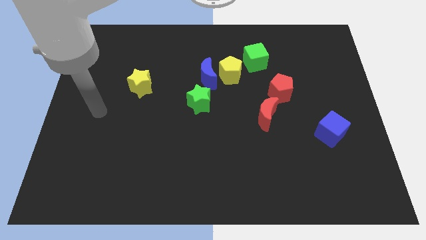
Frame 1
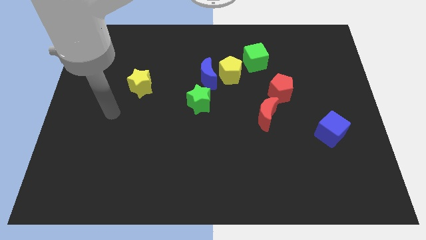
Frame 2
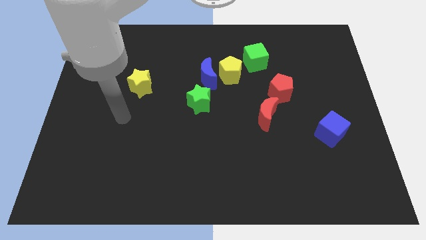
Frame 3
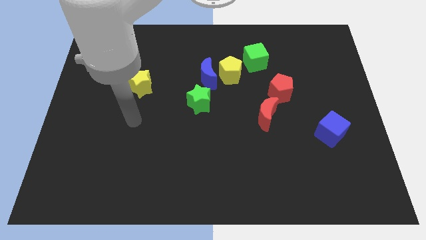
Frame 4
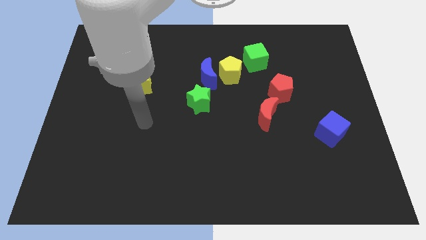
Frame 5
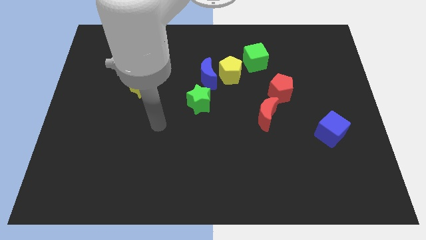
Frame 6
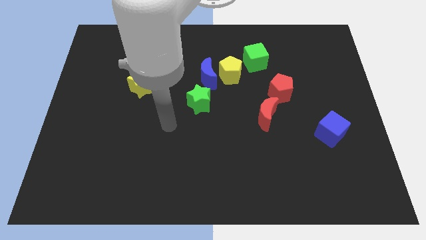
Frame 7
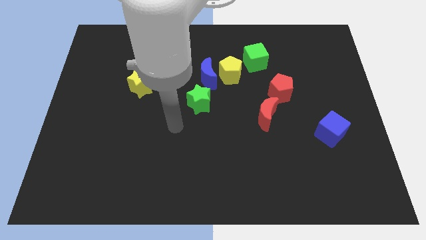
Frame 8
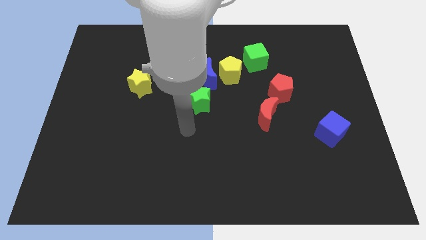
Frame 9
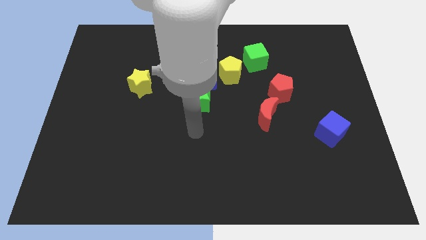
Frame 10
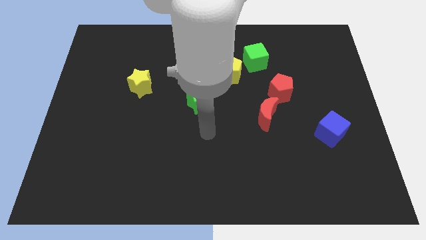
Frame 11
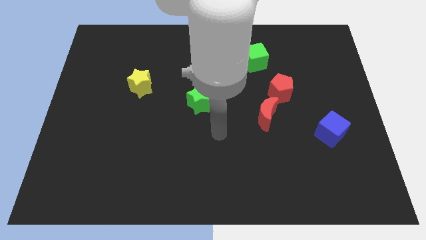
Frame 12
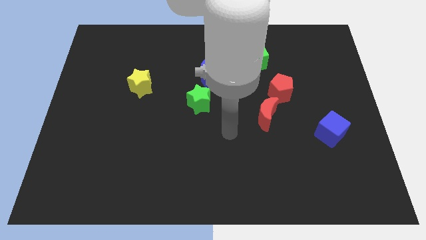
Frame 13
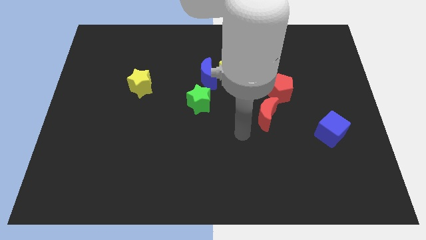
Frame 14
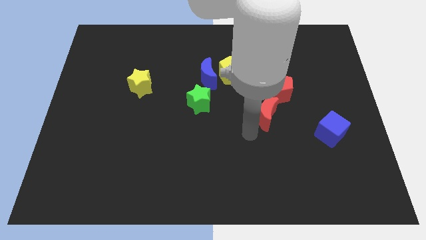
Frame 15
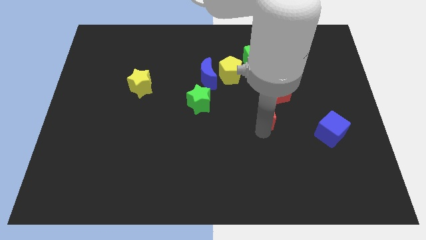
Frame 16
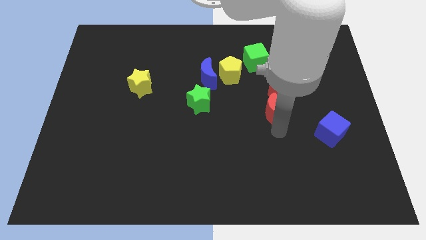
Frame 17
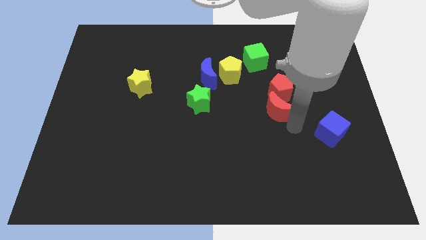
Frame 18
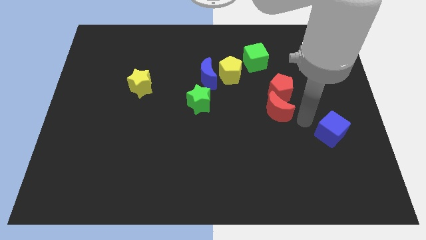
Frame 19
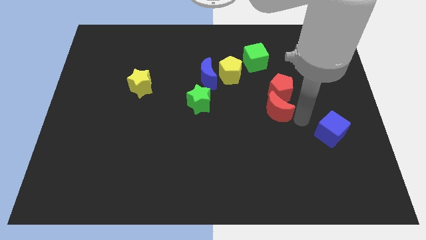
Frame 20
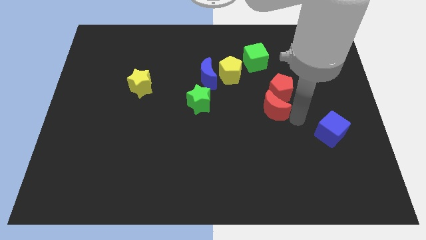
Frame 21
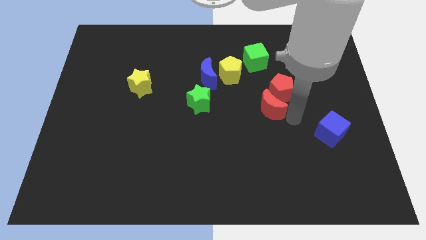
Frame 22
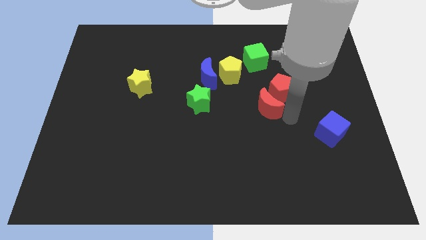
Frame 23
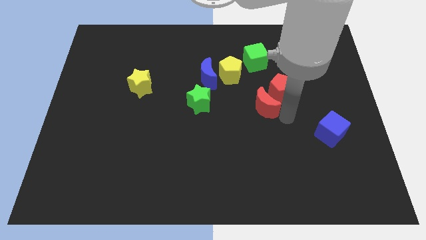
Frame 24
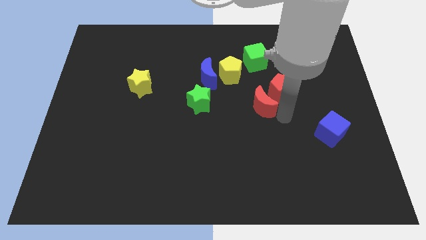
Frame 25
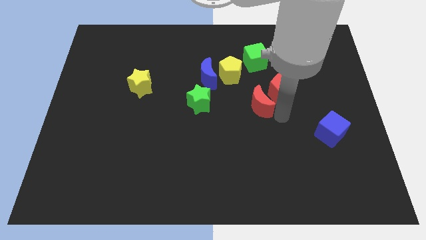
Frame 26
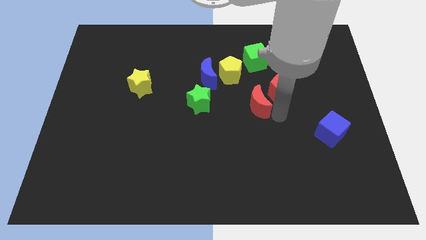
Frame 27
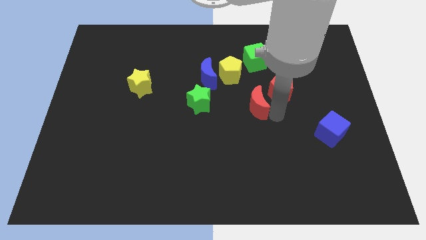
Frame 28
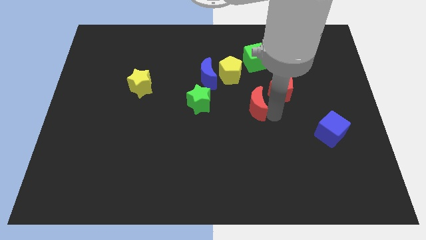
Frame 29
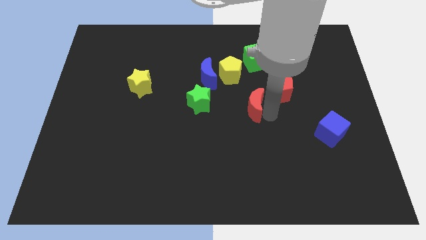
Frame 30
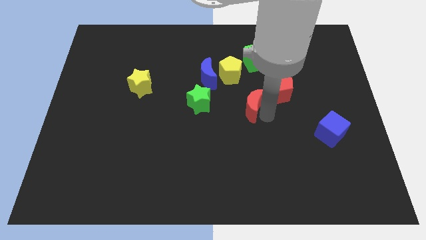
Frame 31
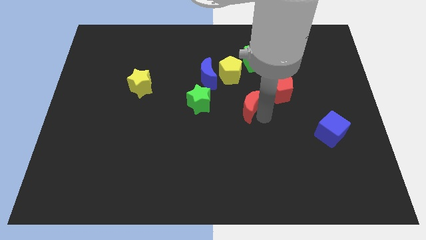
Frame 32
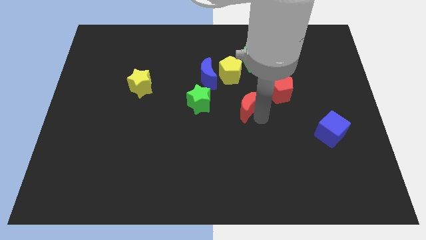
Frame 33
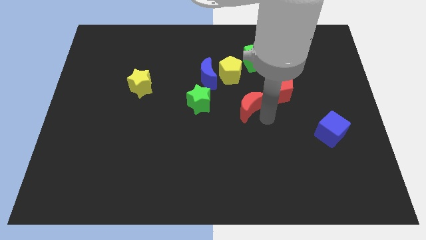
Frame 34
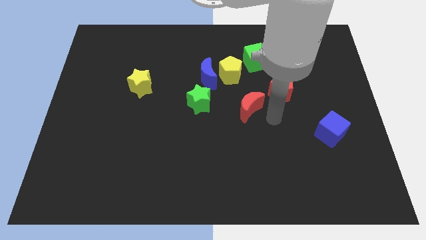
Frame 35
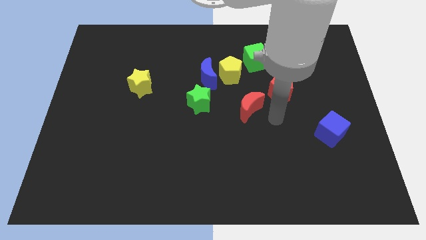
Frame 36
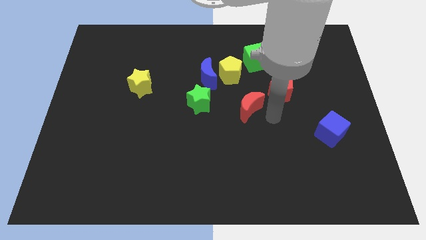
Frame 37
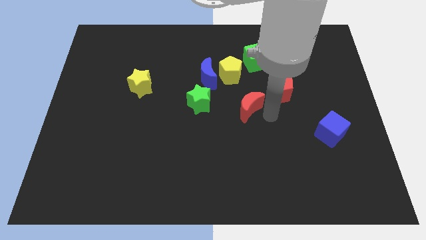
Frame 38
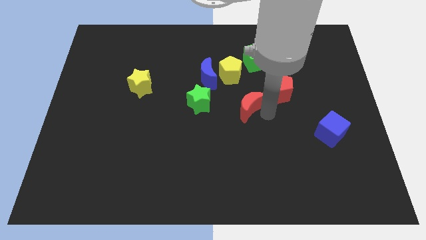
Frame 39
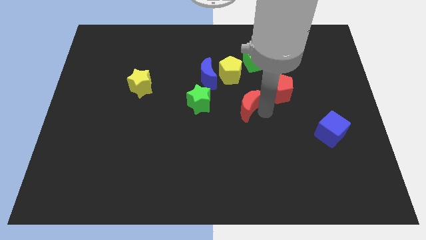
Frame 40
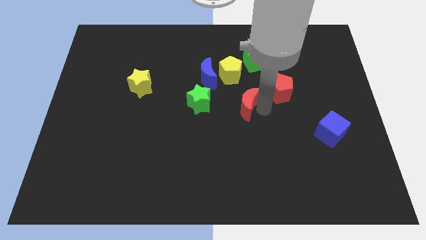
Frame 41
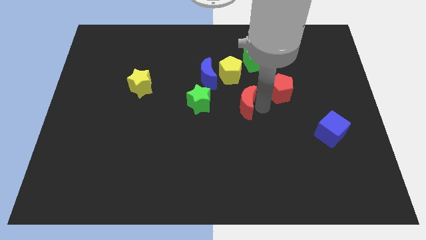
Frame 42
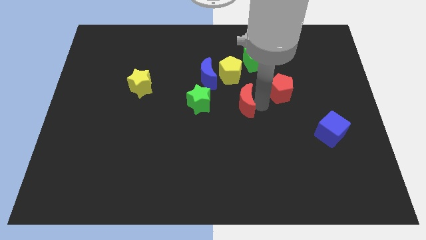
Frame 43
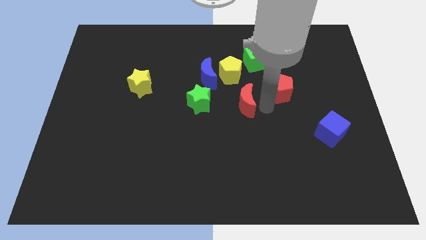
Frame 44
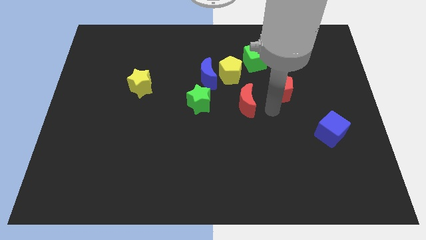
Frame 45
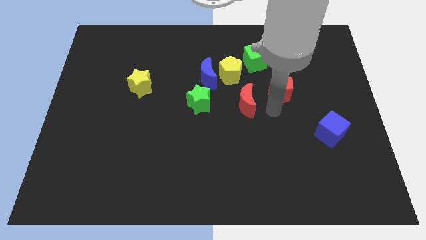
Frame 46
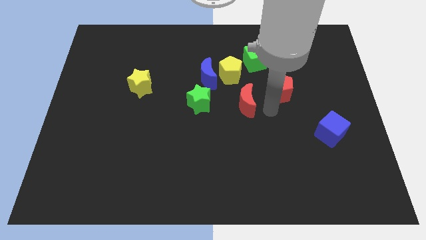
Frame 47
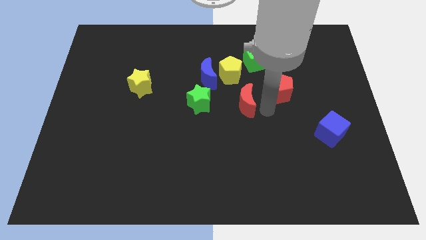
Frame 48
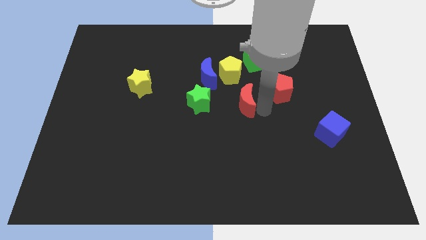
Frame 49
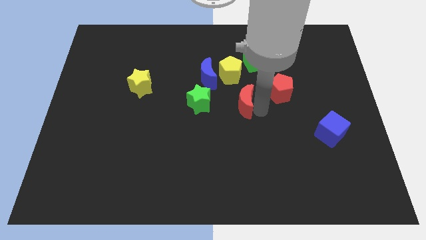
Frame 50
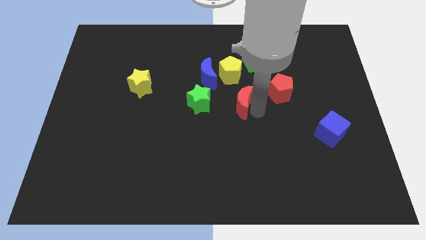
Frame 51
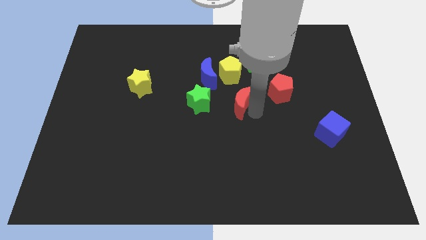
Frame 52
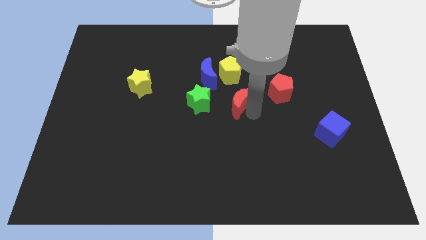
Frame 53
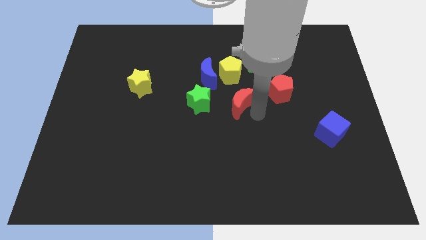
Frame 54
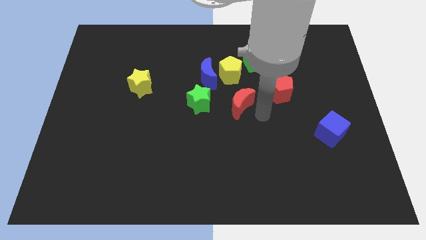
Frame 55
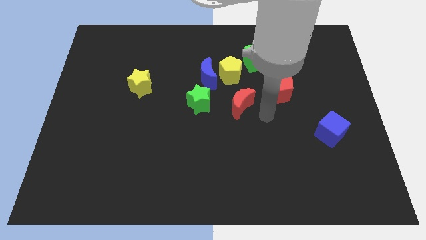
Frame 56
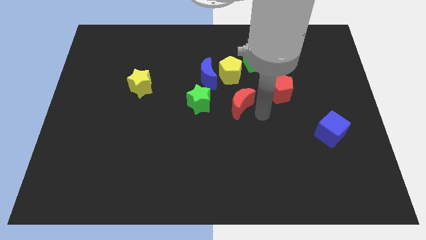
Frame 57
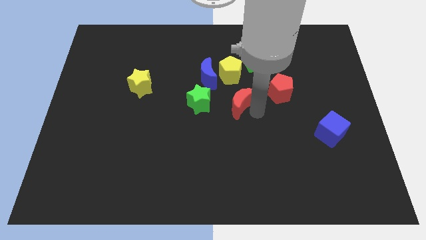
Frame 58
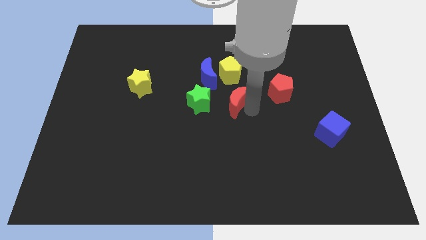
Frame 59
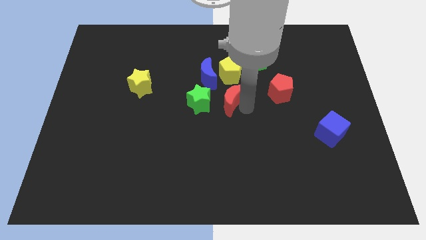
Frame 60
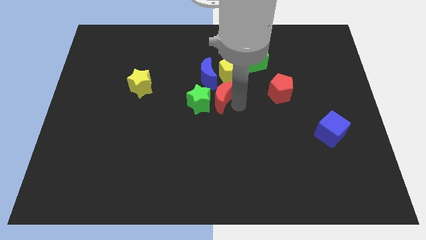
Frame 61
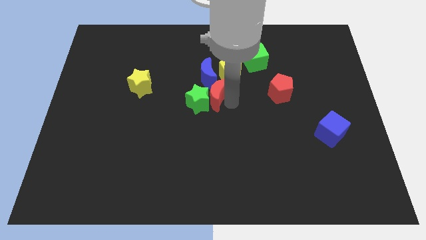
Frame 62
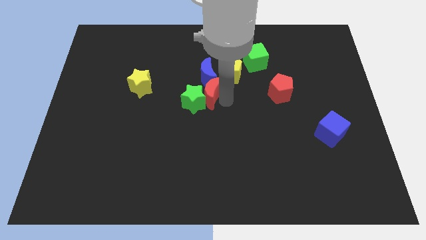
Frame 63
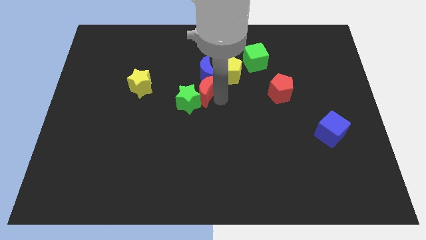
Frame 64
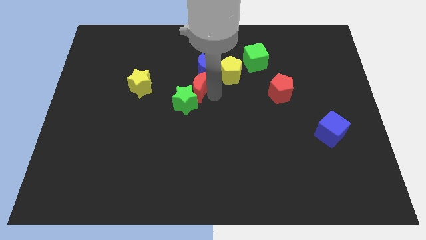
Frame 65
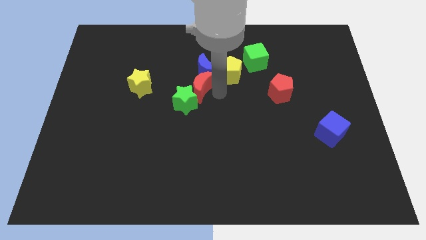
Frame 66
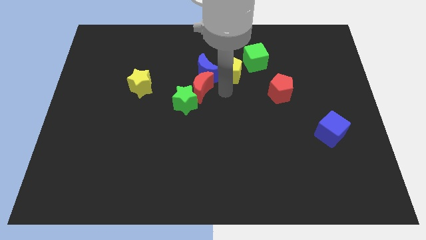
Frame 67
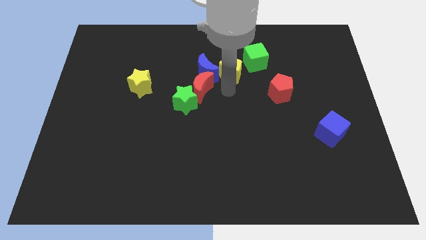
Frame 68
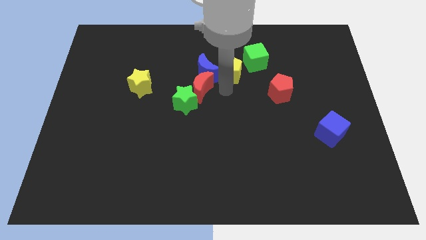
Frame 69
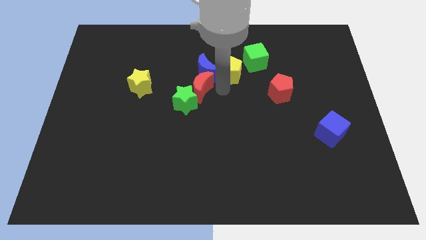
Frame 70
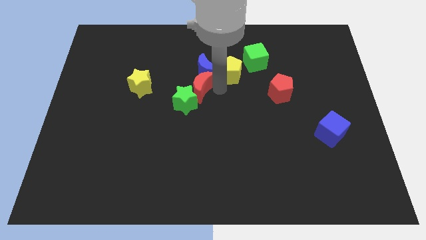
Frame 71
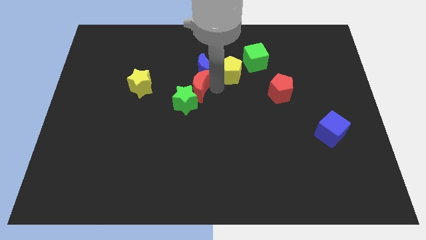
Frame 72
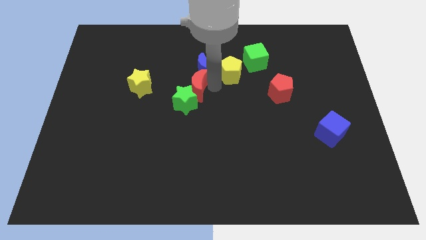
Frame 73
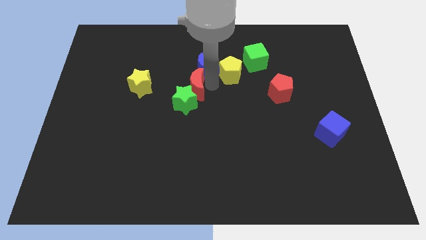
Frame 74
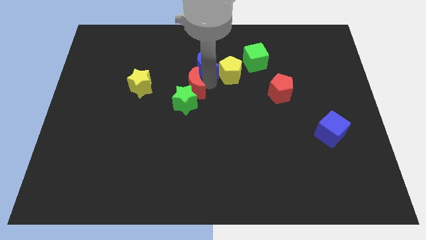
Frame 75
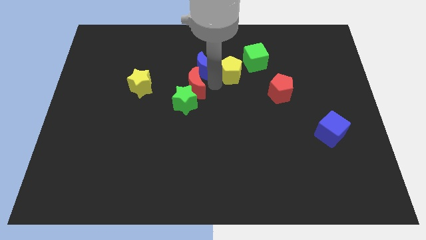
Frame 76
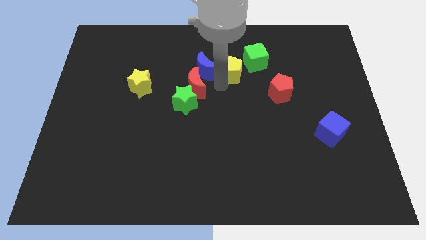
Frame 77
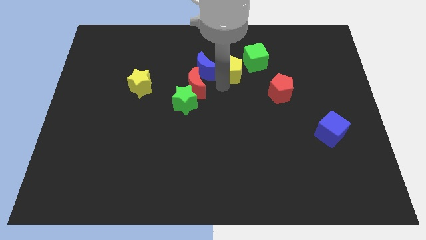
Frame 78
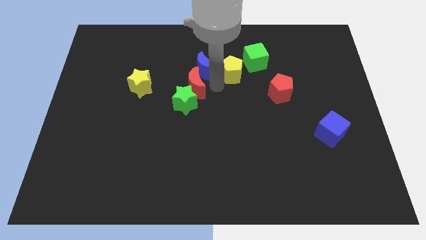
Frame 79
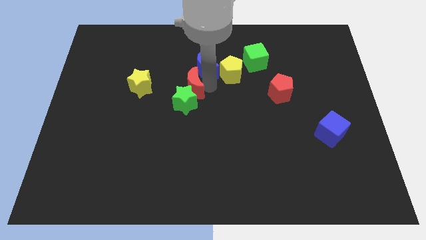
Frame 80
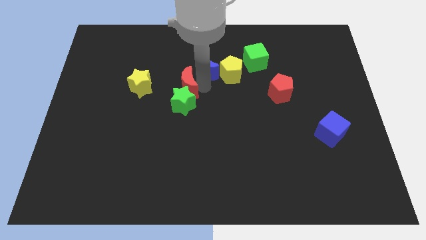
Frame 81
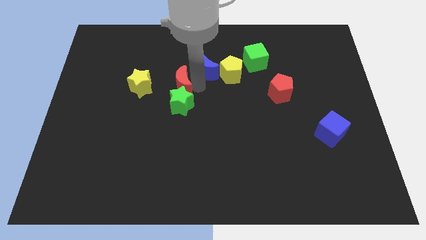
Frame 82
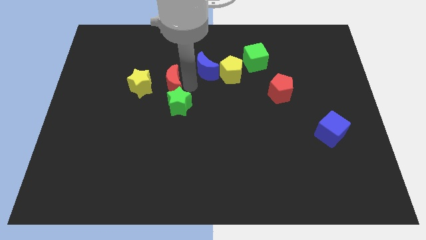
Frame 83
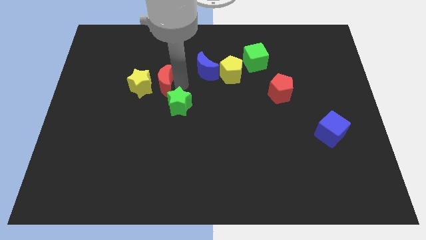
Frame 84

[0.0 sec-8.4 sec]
push the red moon towards the yellow star
